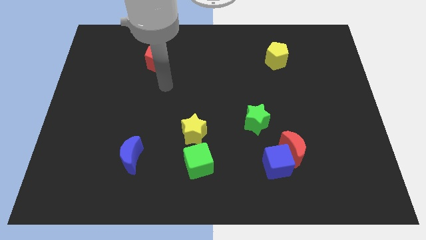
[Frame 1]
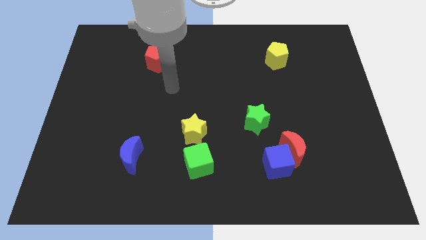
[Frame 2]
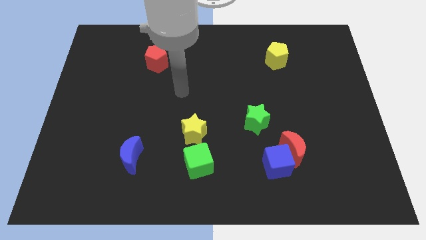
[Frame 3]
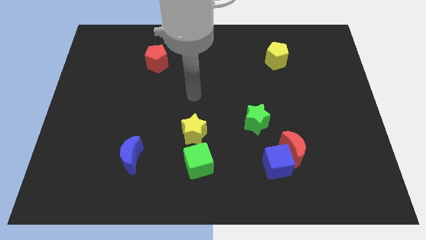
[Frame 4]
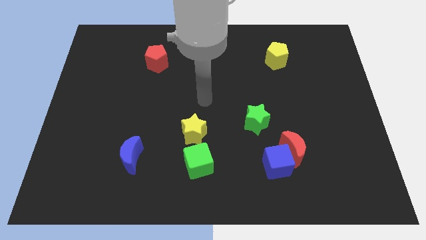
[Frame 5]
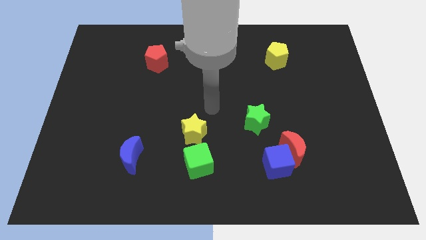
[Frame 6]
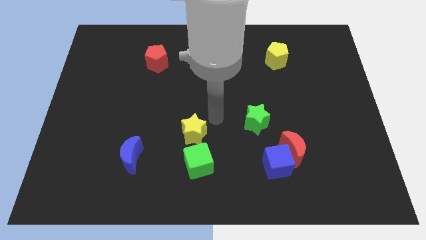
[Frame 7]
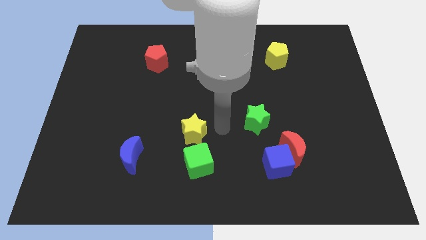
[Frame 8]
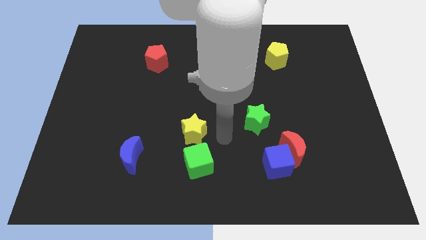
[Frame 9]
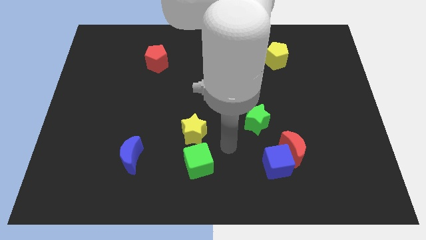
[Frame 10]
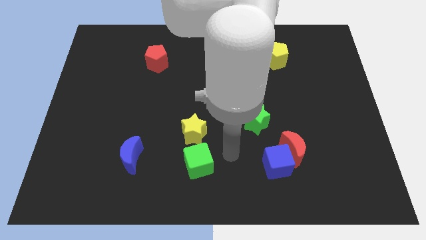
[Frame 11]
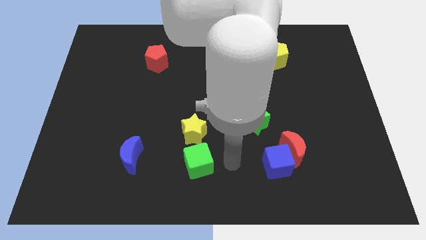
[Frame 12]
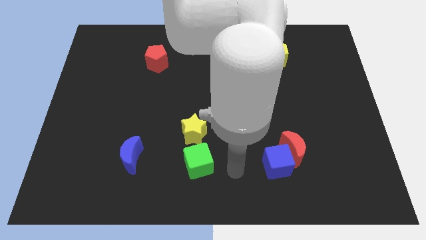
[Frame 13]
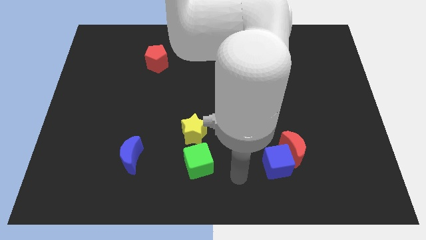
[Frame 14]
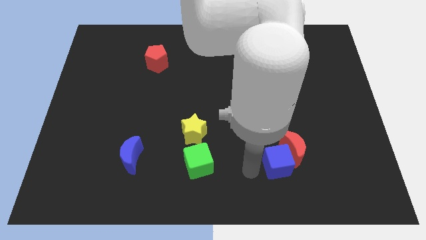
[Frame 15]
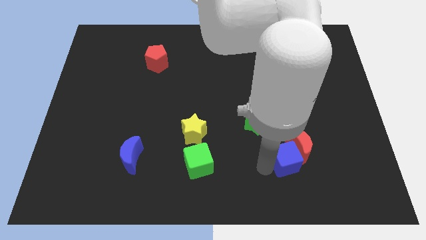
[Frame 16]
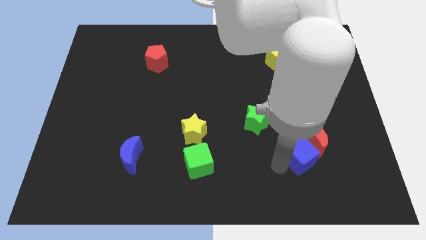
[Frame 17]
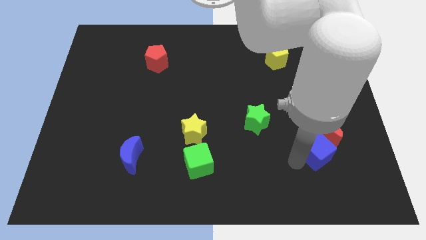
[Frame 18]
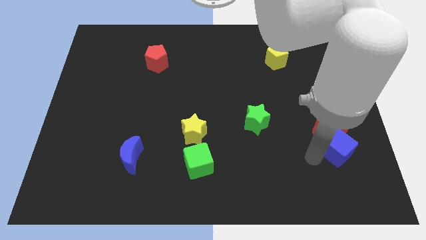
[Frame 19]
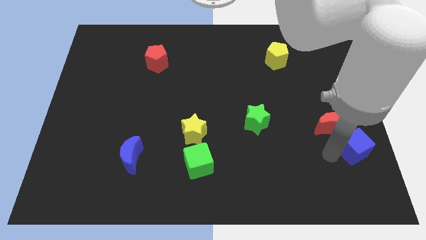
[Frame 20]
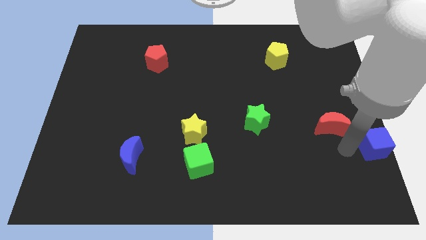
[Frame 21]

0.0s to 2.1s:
separate the red moon from the blue cube

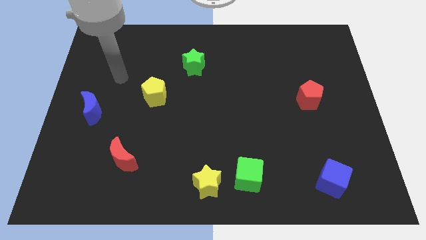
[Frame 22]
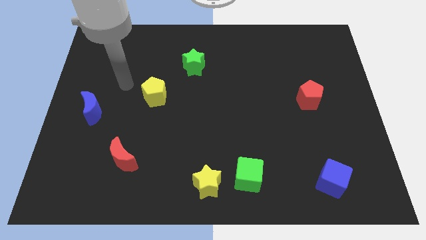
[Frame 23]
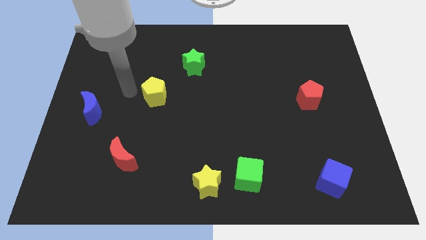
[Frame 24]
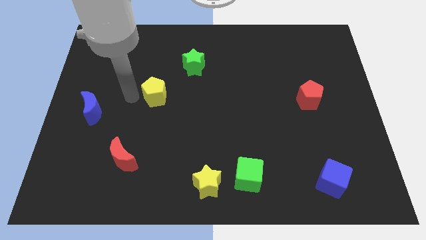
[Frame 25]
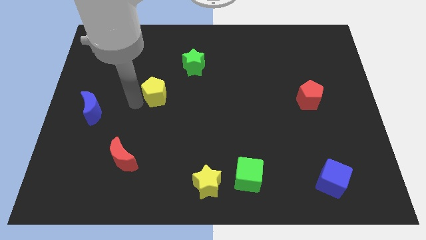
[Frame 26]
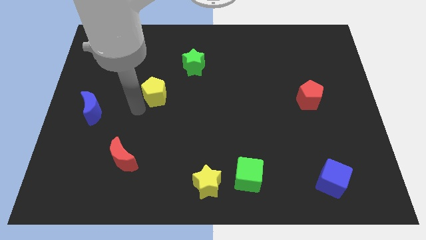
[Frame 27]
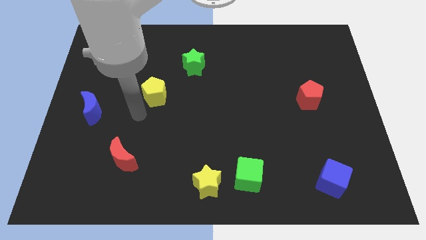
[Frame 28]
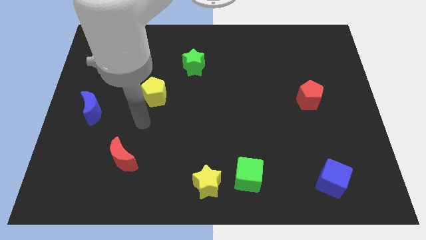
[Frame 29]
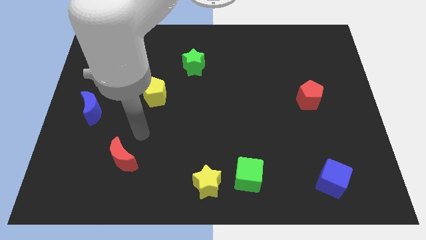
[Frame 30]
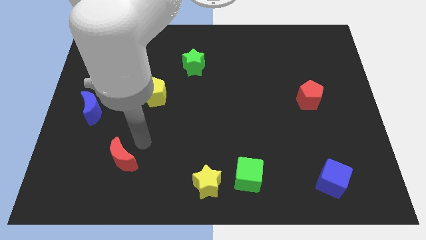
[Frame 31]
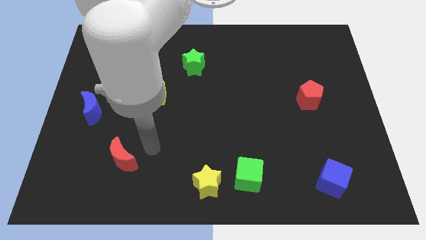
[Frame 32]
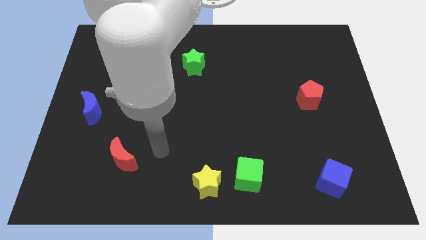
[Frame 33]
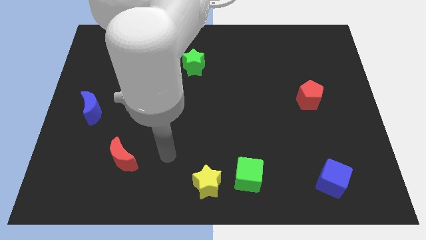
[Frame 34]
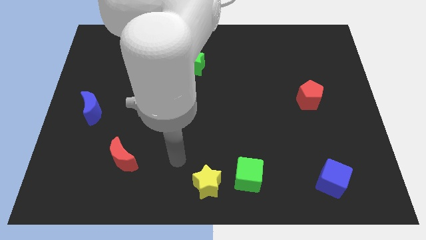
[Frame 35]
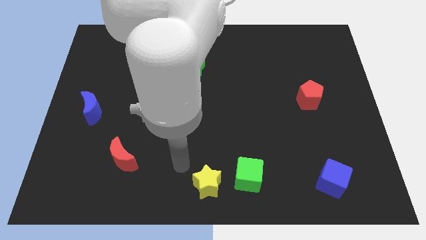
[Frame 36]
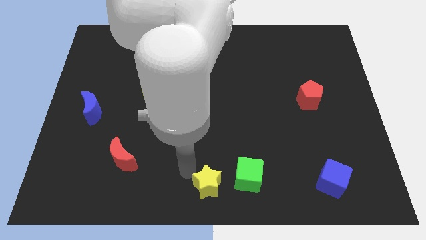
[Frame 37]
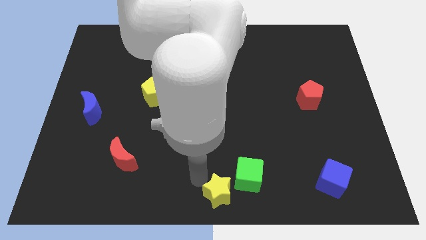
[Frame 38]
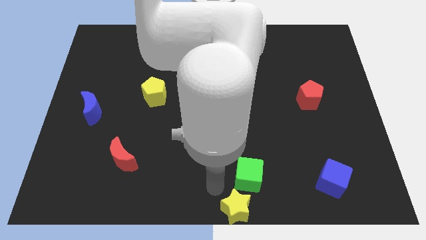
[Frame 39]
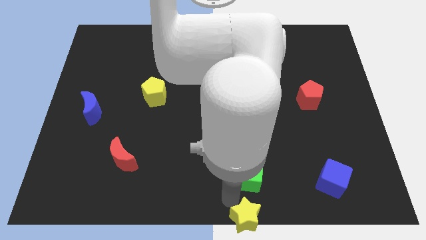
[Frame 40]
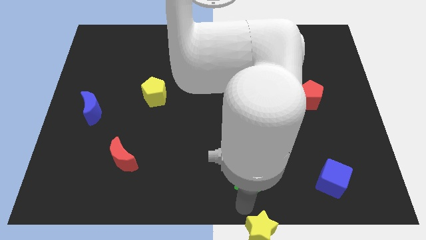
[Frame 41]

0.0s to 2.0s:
pull the green cube apart from the yellow star

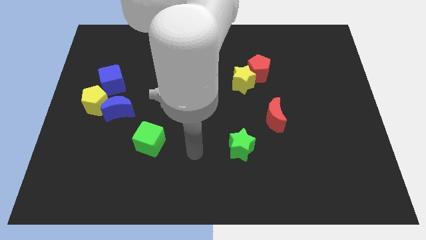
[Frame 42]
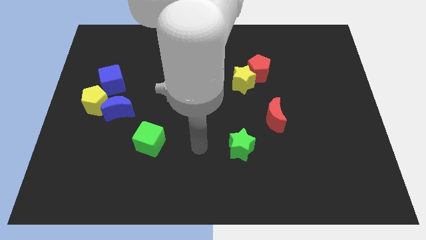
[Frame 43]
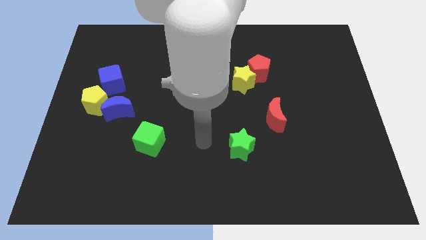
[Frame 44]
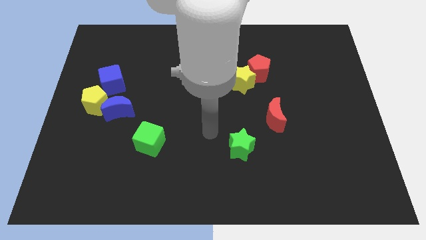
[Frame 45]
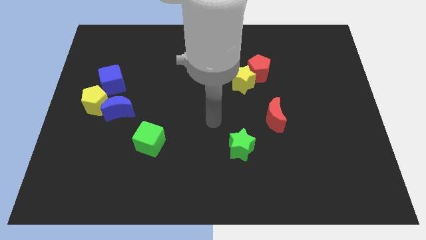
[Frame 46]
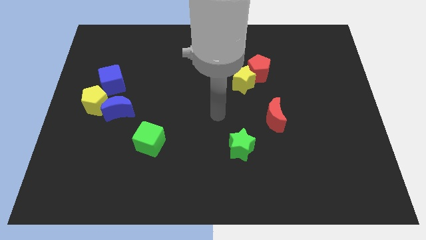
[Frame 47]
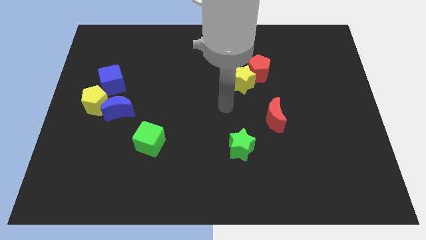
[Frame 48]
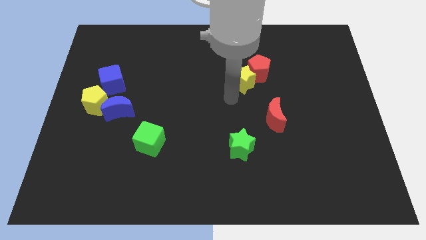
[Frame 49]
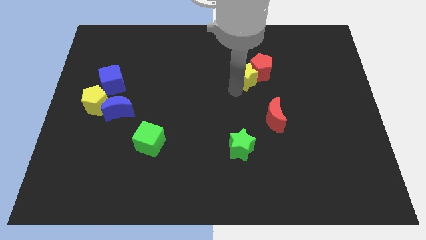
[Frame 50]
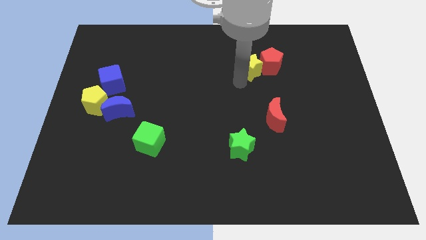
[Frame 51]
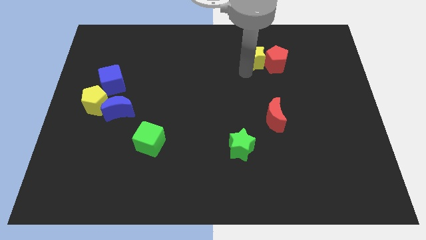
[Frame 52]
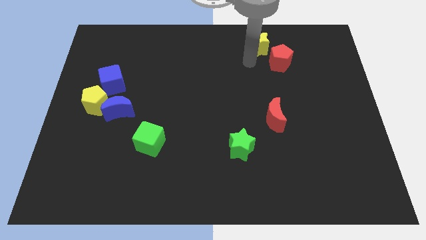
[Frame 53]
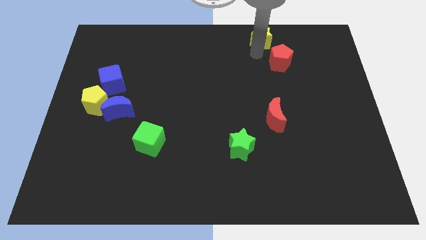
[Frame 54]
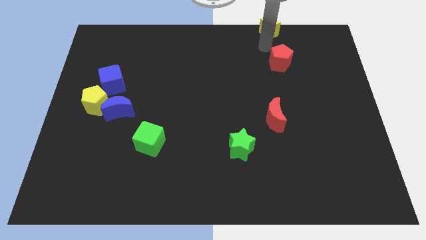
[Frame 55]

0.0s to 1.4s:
move the red pentagon away from the yellow star

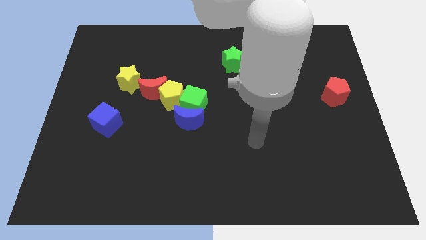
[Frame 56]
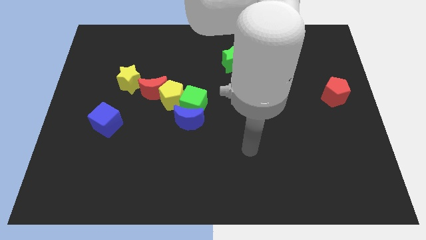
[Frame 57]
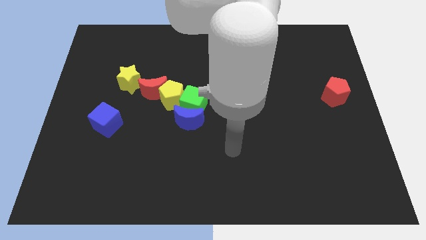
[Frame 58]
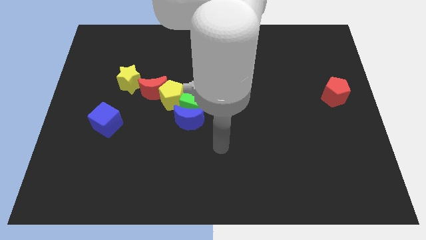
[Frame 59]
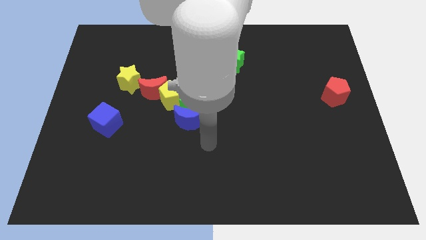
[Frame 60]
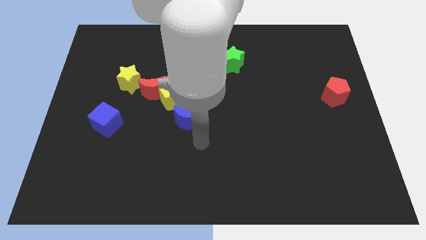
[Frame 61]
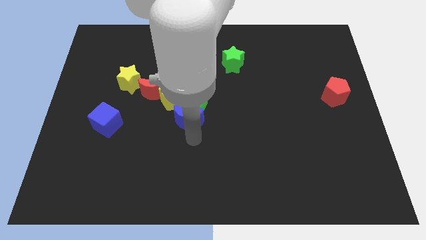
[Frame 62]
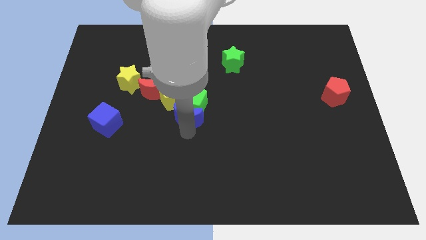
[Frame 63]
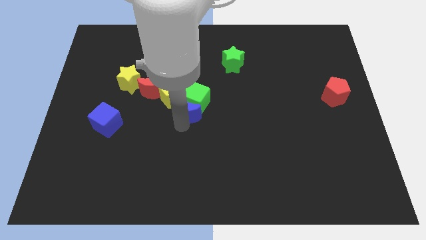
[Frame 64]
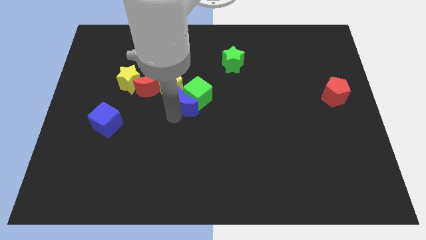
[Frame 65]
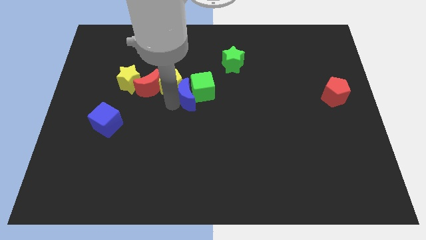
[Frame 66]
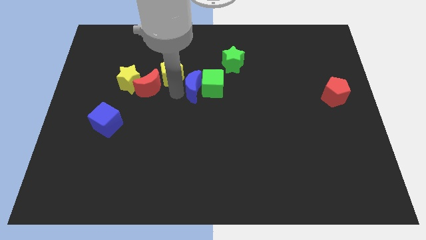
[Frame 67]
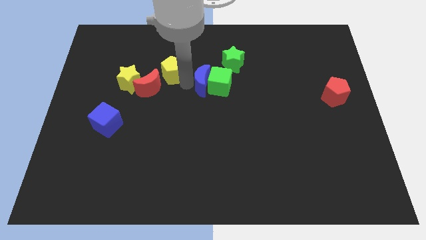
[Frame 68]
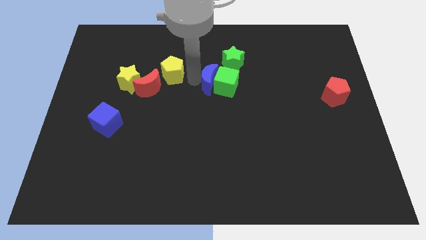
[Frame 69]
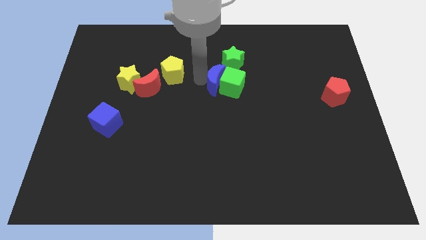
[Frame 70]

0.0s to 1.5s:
separate the green cube from the blue moon and yellow pentagon

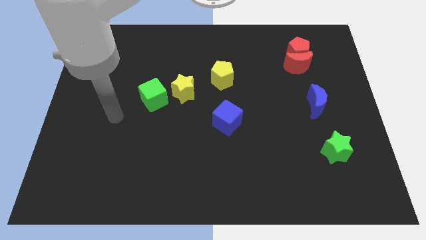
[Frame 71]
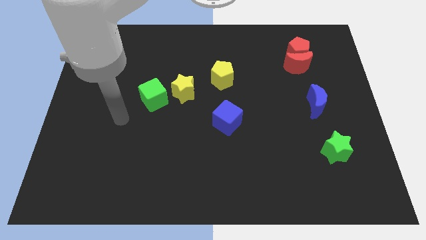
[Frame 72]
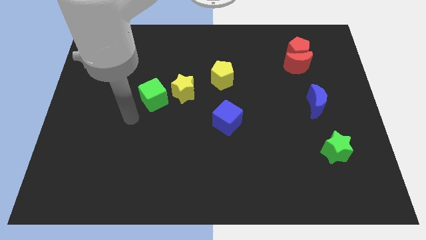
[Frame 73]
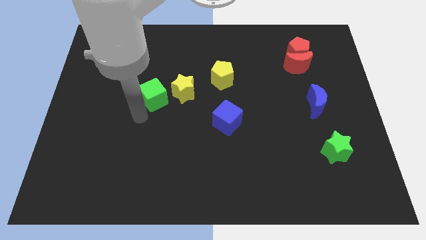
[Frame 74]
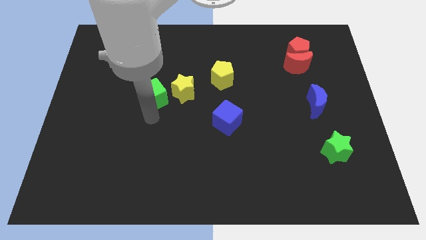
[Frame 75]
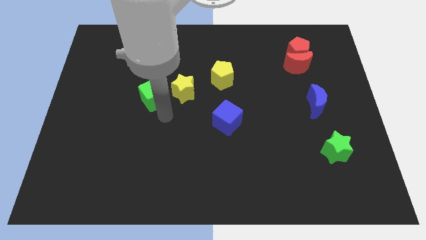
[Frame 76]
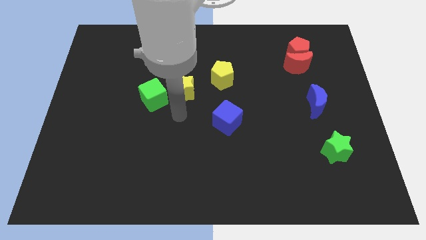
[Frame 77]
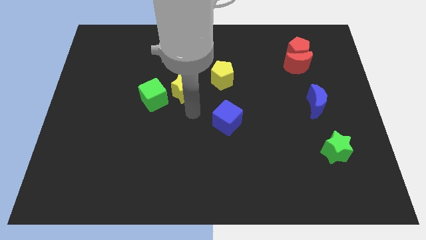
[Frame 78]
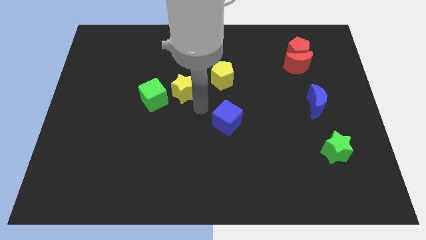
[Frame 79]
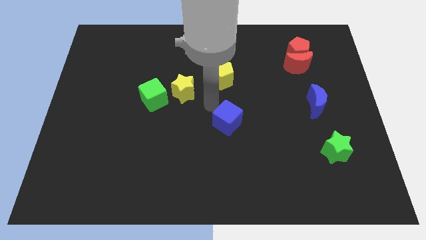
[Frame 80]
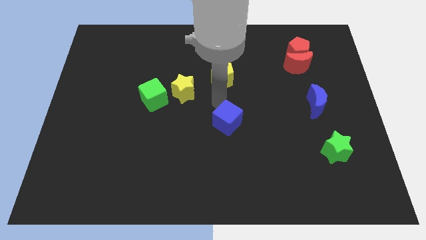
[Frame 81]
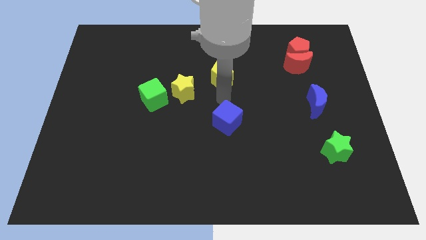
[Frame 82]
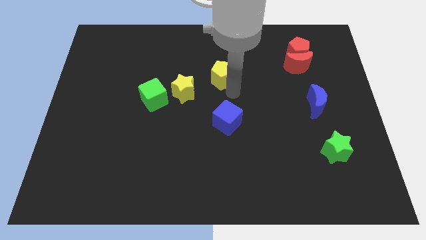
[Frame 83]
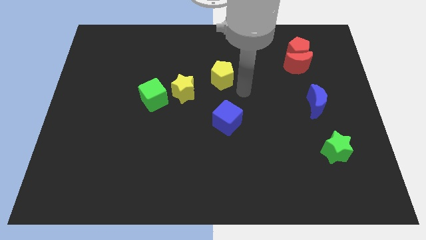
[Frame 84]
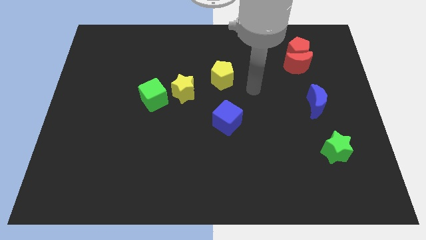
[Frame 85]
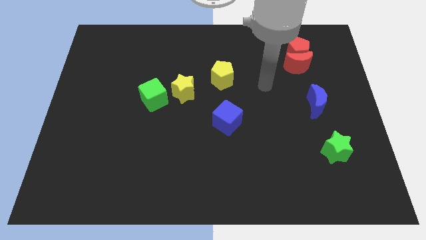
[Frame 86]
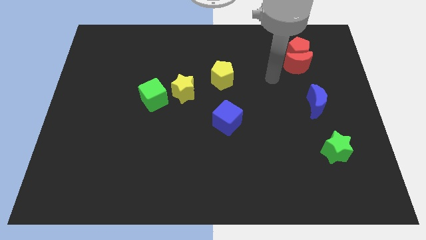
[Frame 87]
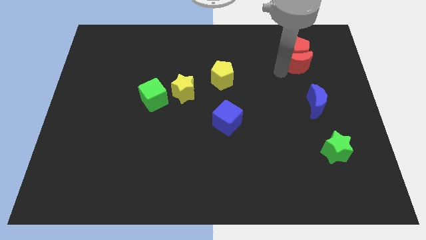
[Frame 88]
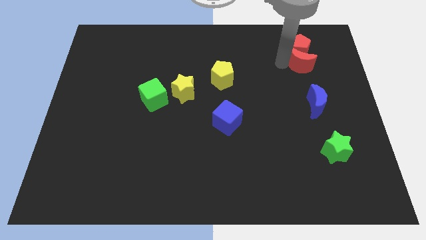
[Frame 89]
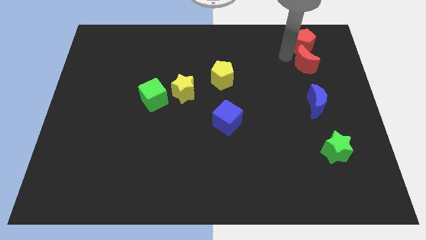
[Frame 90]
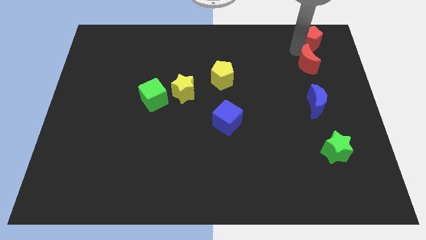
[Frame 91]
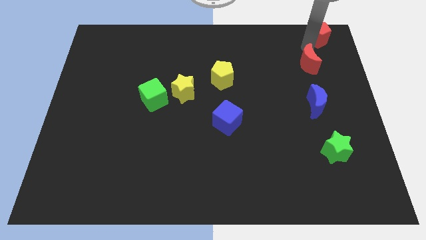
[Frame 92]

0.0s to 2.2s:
move the red moon away from the red pentagon

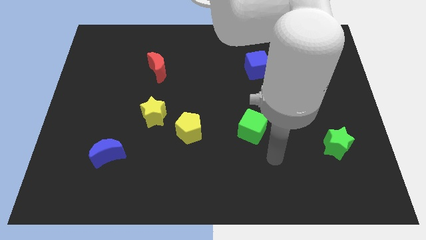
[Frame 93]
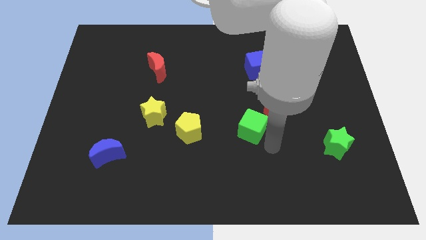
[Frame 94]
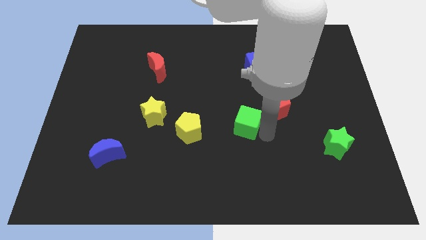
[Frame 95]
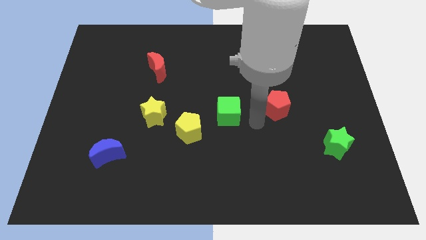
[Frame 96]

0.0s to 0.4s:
separate the red pentagon from the green cube
